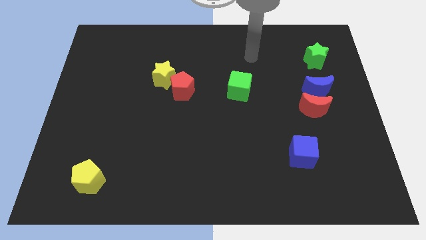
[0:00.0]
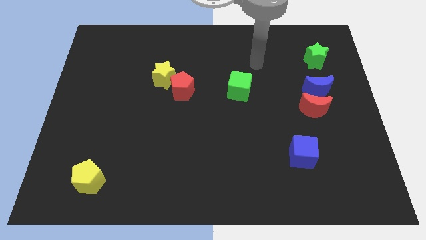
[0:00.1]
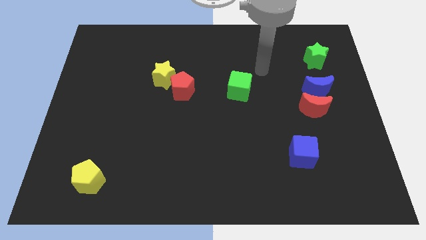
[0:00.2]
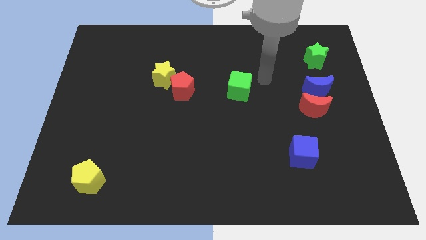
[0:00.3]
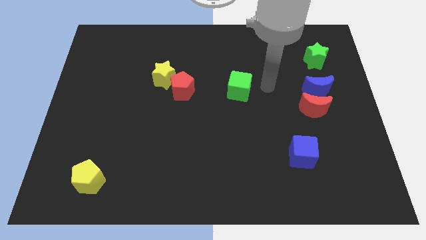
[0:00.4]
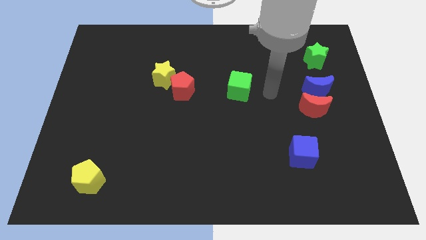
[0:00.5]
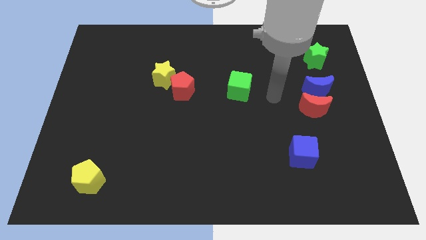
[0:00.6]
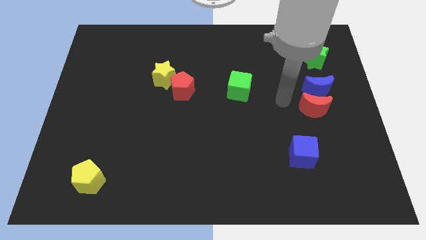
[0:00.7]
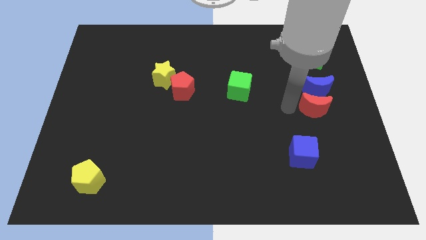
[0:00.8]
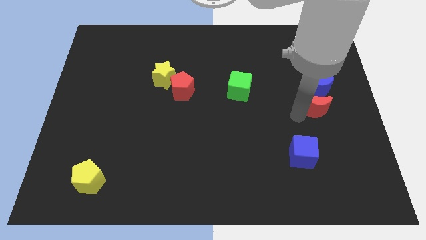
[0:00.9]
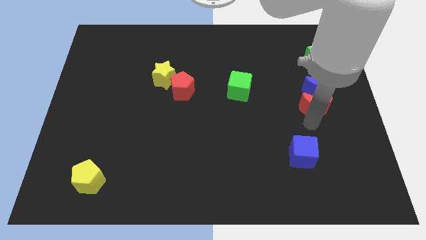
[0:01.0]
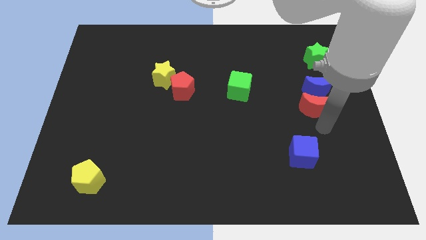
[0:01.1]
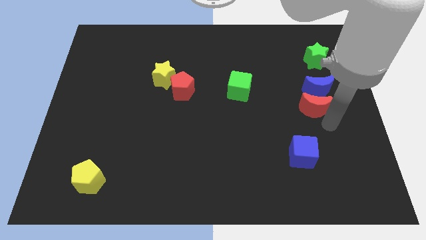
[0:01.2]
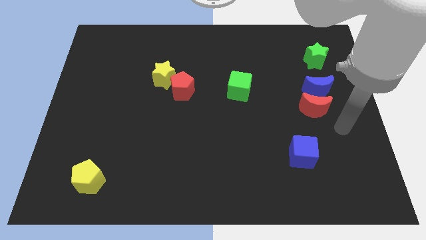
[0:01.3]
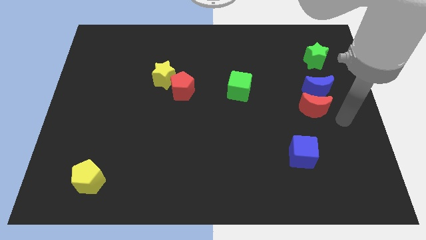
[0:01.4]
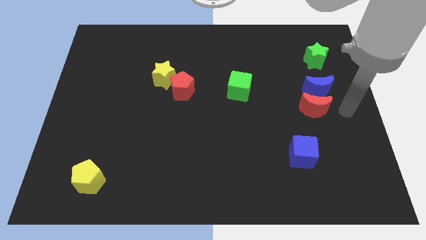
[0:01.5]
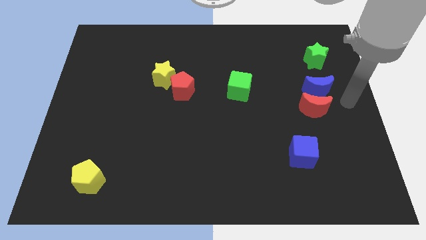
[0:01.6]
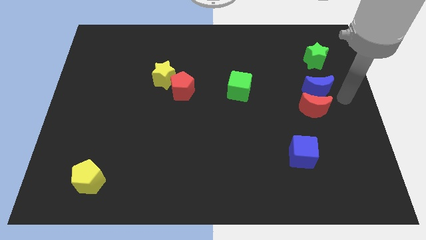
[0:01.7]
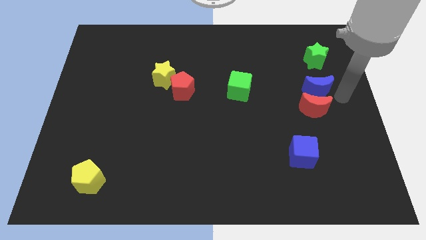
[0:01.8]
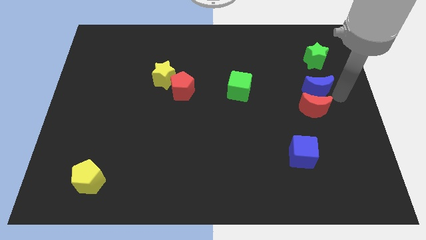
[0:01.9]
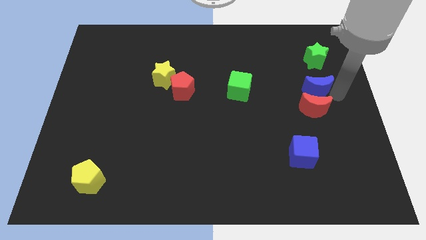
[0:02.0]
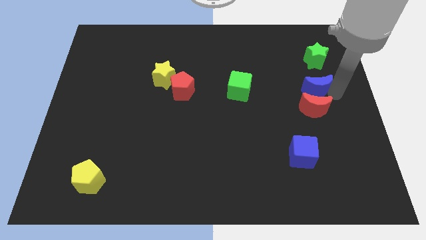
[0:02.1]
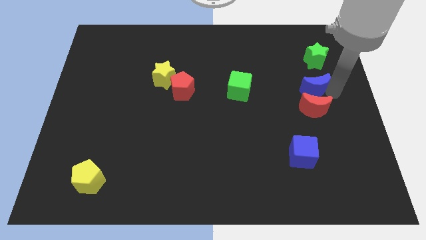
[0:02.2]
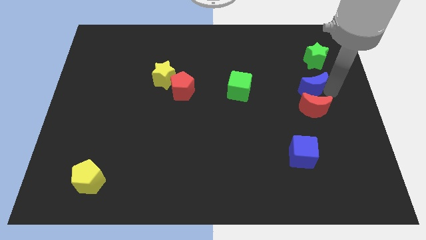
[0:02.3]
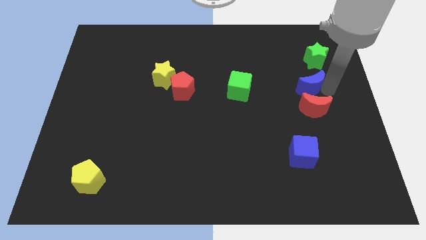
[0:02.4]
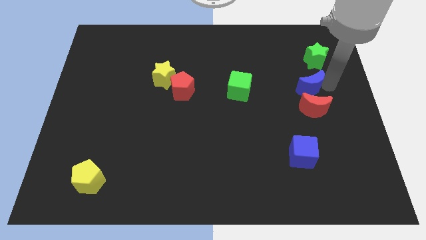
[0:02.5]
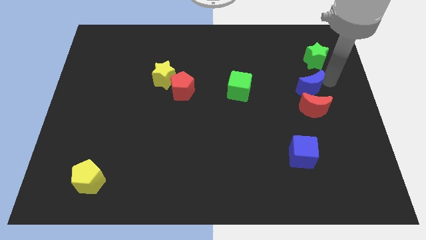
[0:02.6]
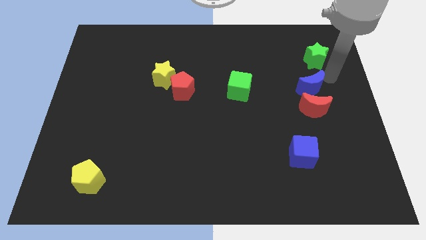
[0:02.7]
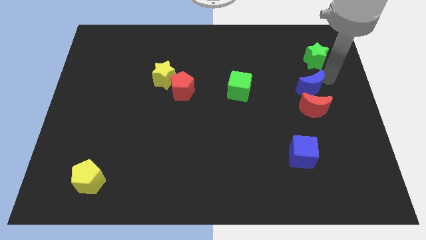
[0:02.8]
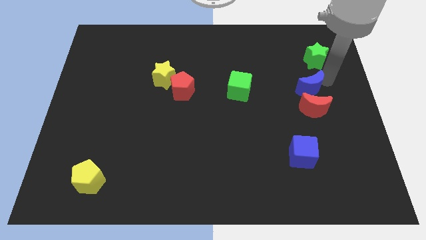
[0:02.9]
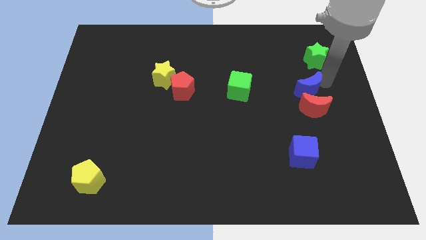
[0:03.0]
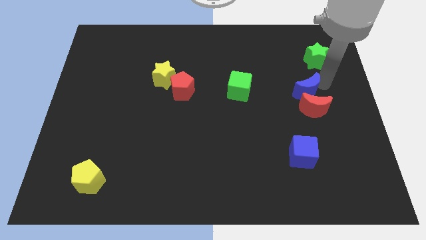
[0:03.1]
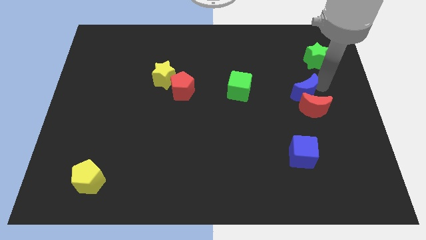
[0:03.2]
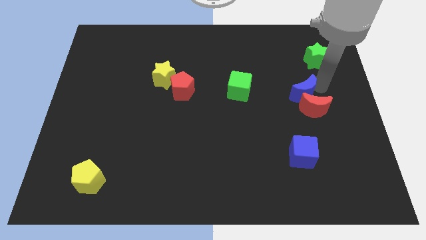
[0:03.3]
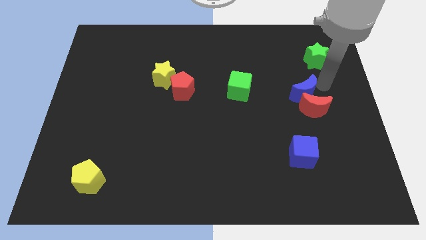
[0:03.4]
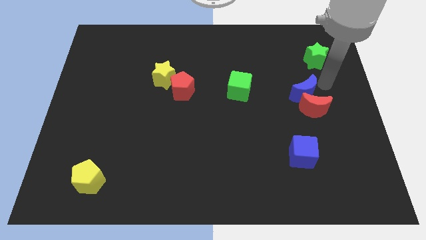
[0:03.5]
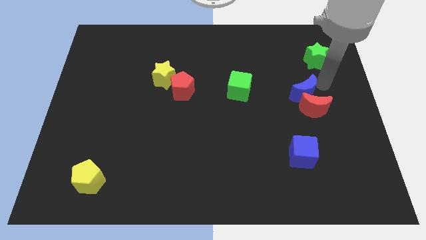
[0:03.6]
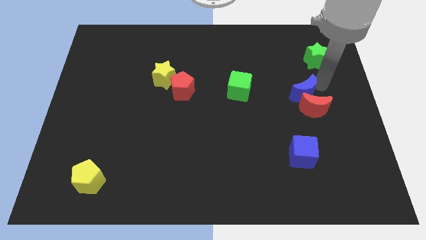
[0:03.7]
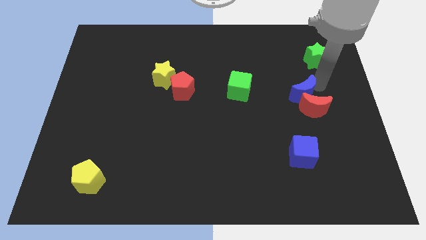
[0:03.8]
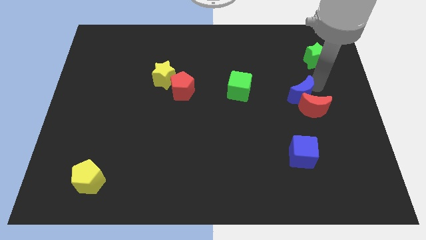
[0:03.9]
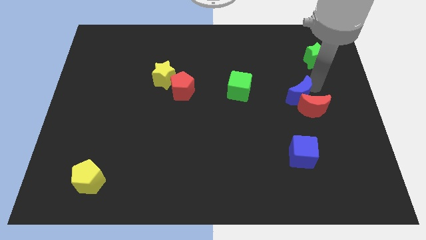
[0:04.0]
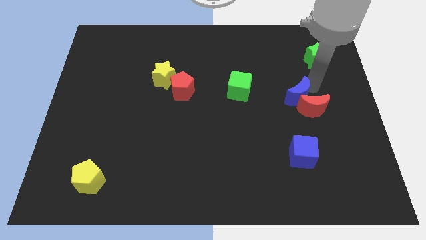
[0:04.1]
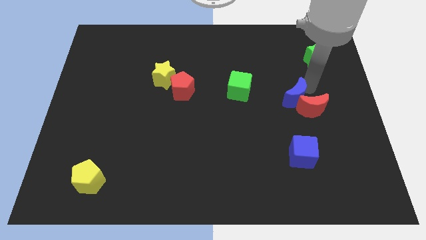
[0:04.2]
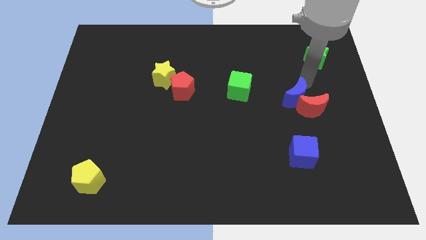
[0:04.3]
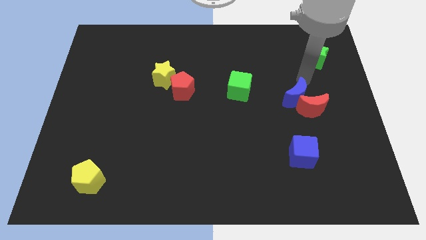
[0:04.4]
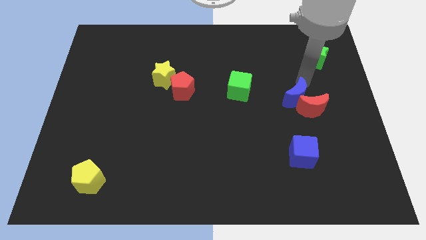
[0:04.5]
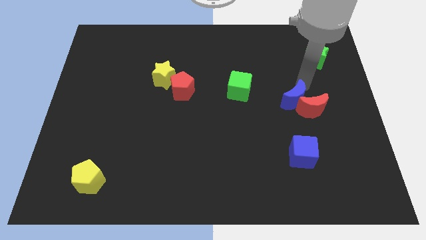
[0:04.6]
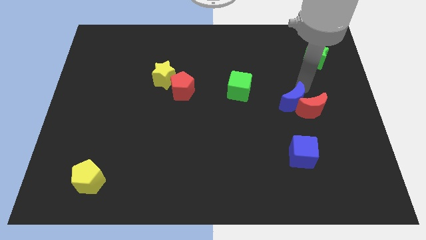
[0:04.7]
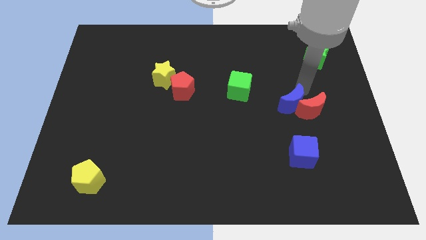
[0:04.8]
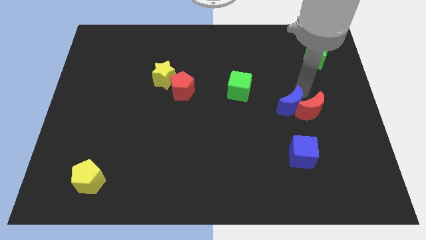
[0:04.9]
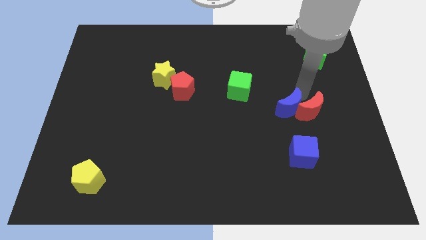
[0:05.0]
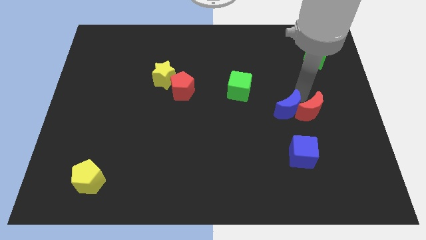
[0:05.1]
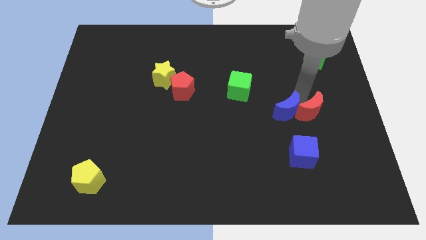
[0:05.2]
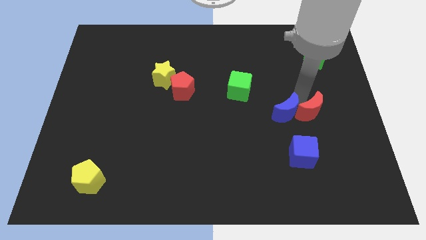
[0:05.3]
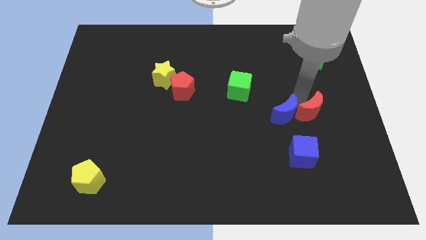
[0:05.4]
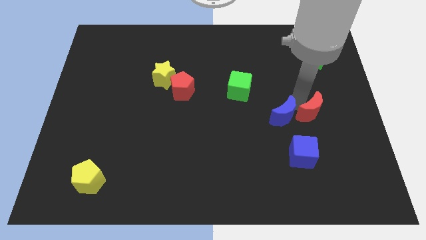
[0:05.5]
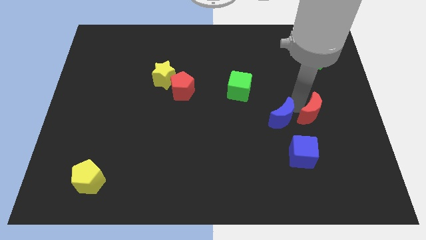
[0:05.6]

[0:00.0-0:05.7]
slide the blue moon to the top left side of the blue cube

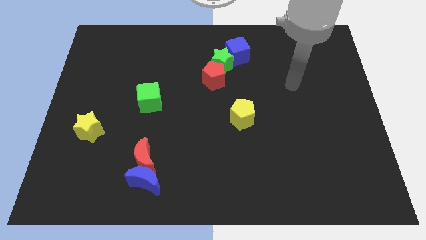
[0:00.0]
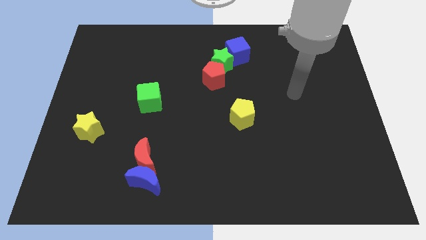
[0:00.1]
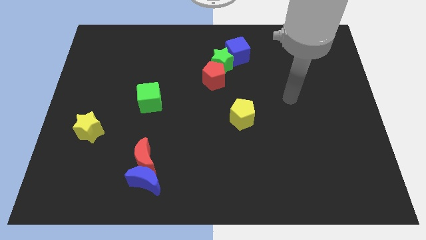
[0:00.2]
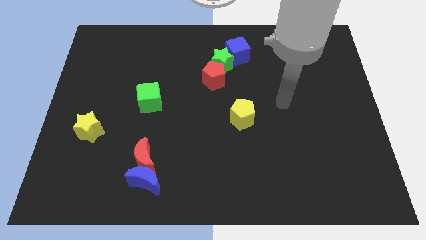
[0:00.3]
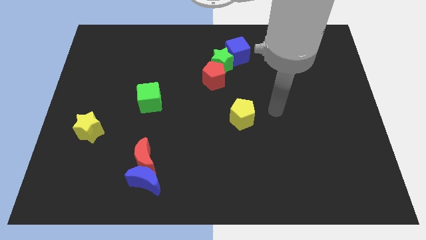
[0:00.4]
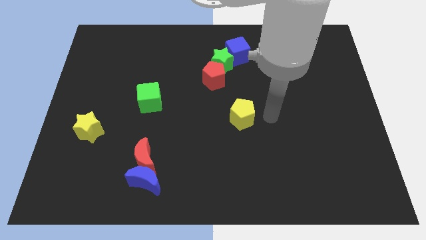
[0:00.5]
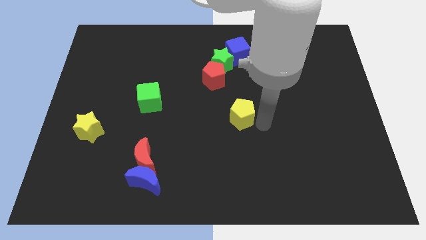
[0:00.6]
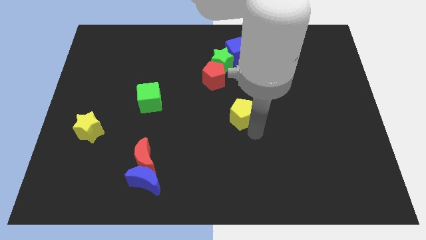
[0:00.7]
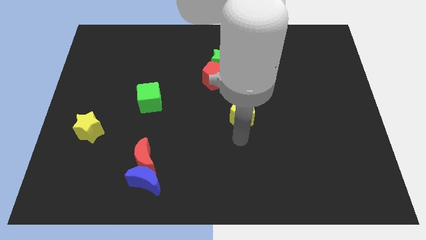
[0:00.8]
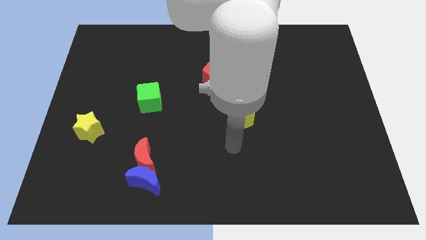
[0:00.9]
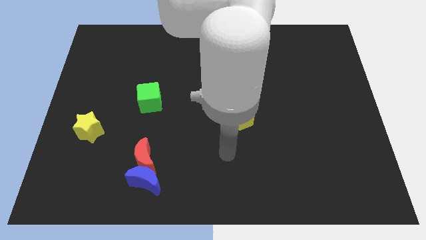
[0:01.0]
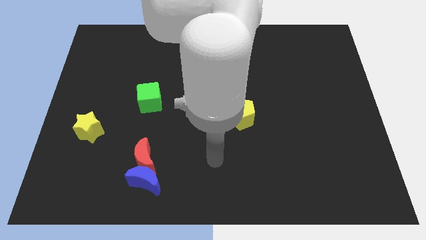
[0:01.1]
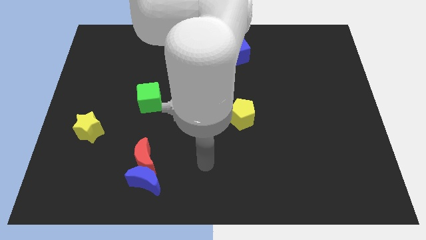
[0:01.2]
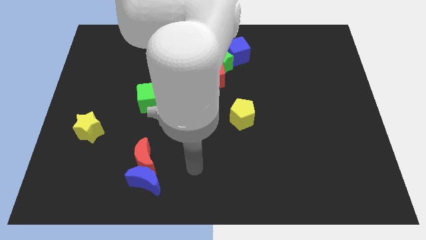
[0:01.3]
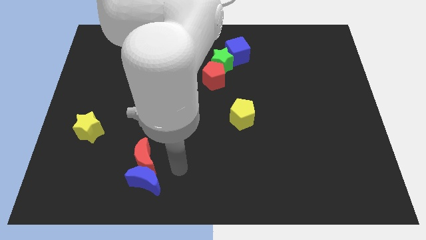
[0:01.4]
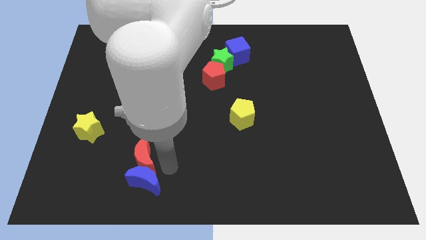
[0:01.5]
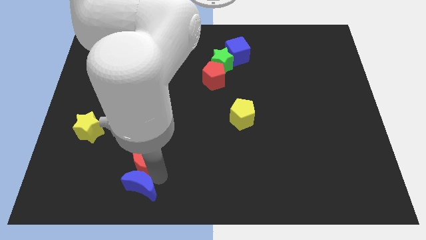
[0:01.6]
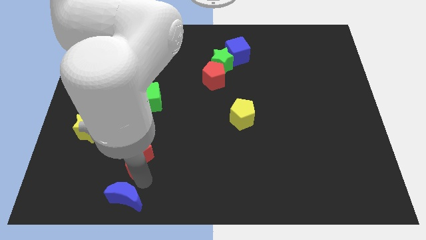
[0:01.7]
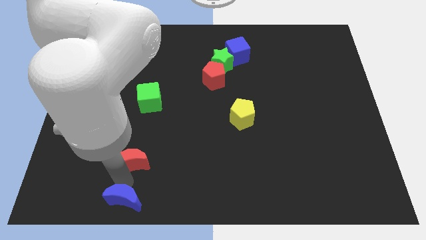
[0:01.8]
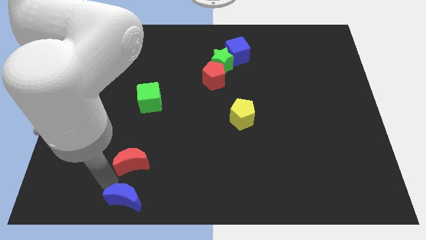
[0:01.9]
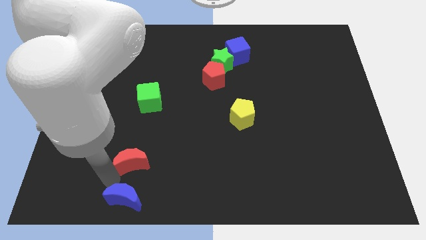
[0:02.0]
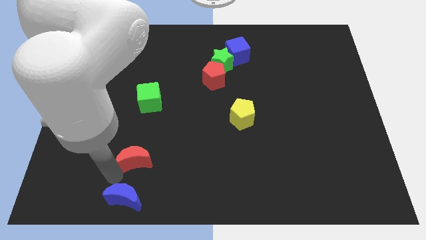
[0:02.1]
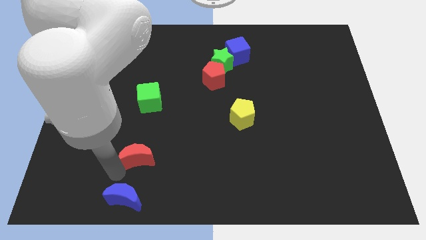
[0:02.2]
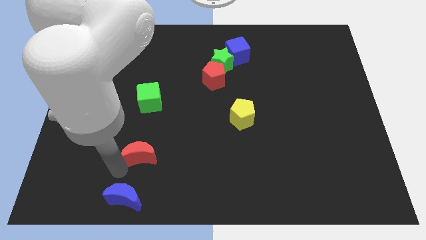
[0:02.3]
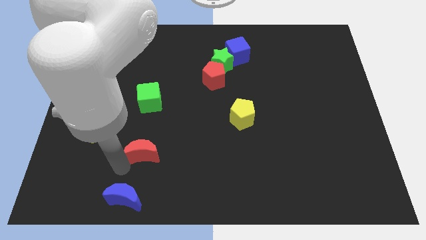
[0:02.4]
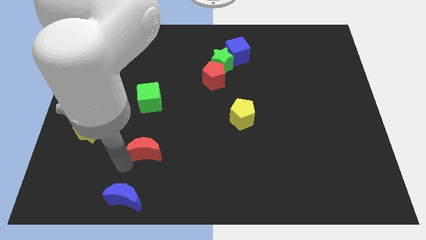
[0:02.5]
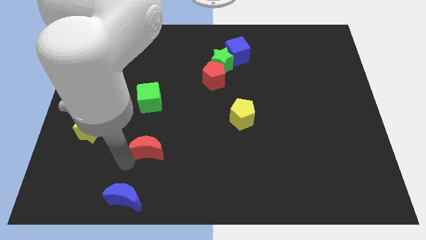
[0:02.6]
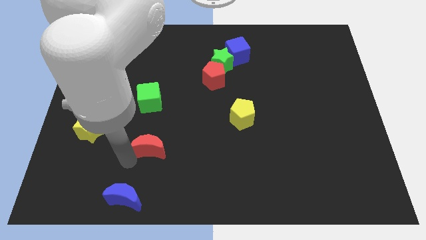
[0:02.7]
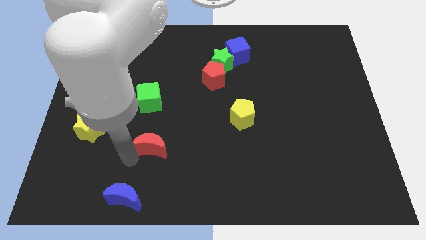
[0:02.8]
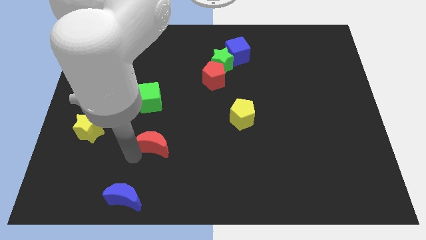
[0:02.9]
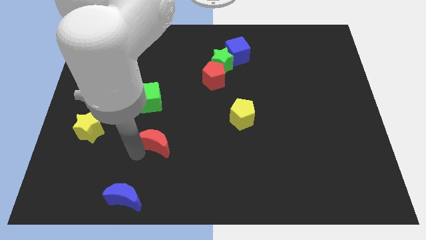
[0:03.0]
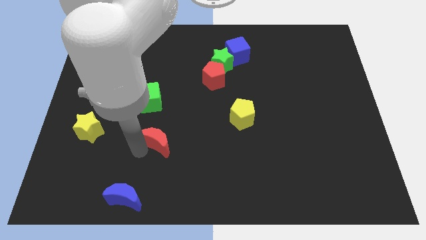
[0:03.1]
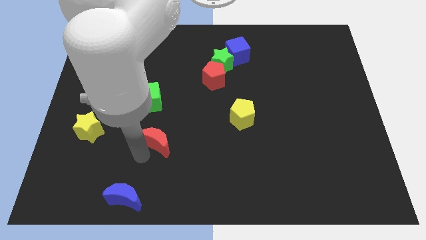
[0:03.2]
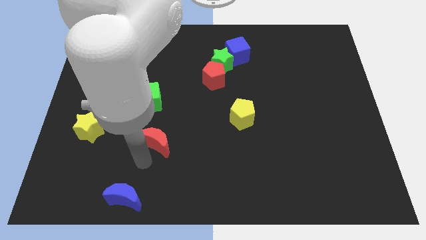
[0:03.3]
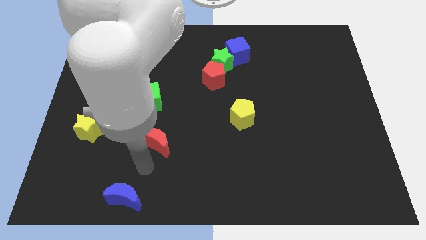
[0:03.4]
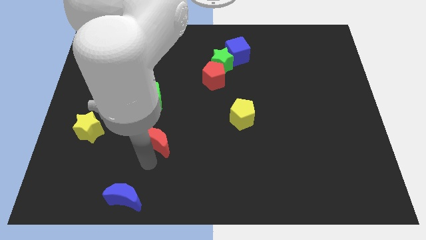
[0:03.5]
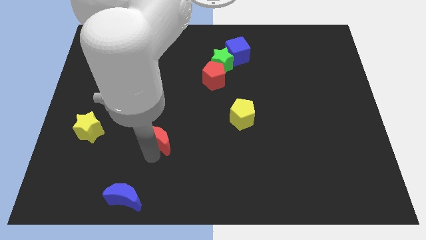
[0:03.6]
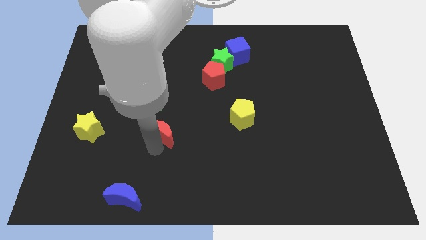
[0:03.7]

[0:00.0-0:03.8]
push the red moon to the bottom right of the green cube
